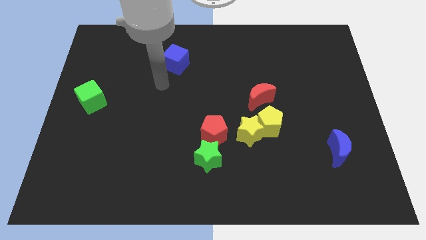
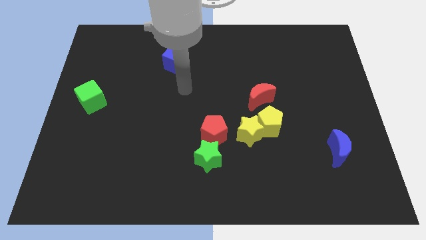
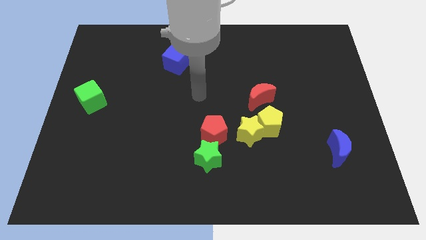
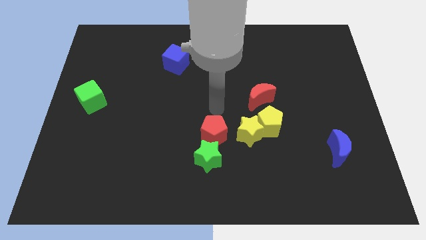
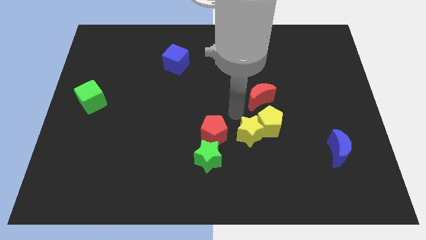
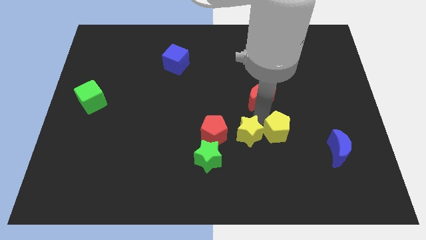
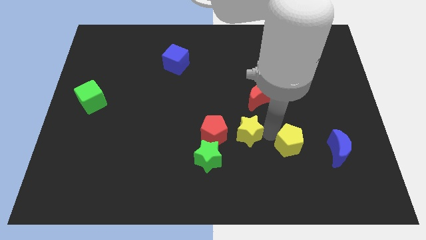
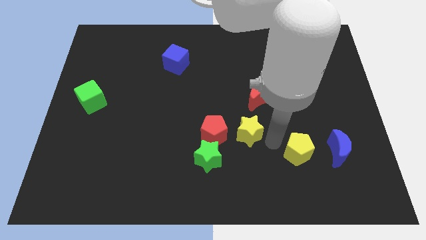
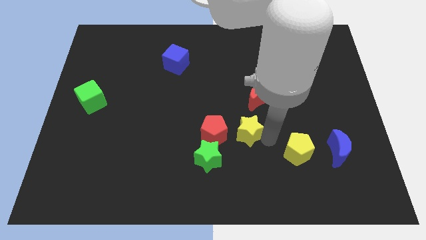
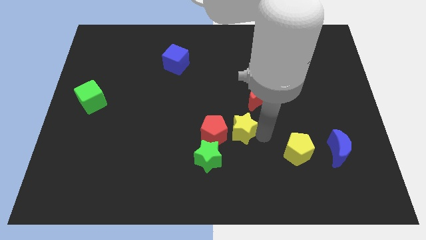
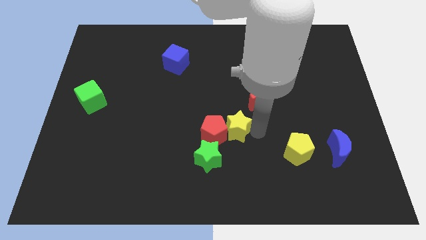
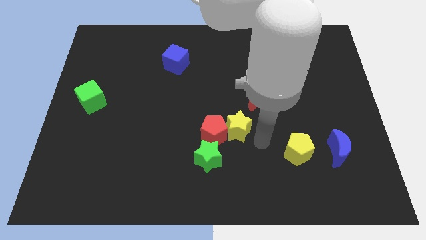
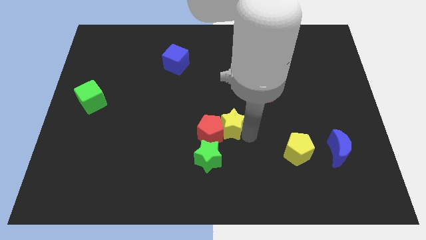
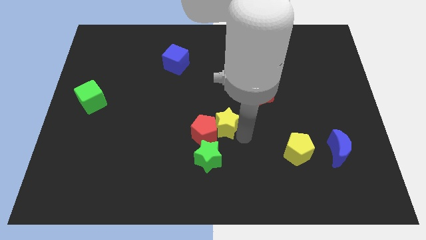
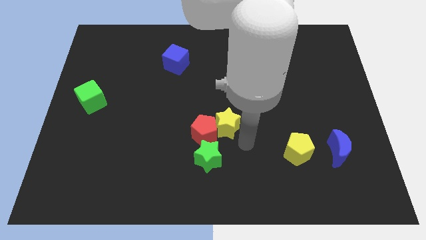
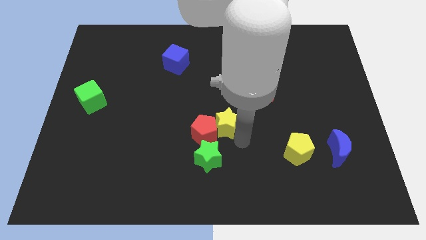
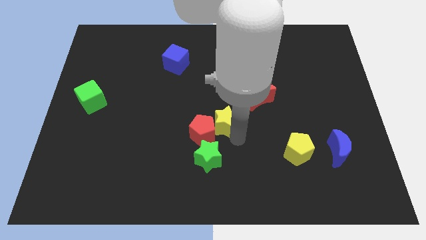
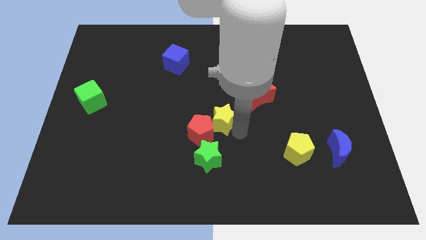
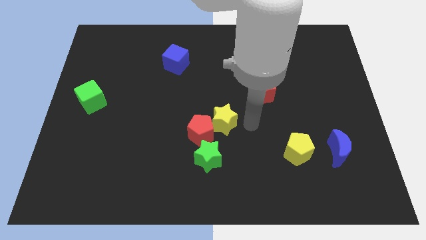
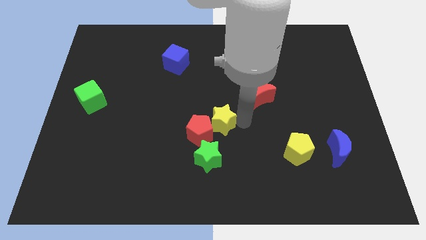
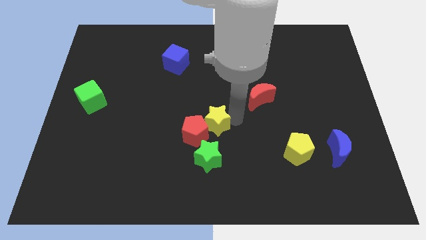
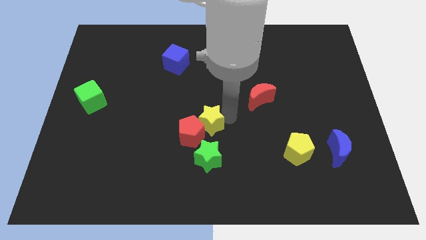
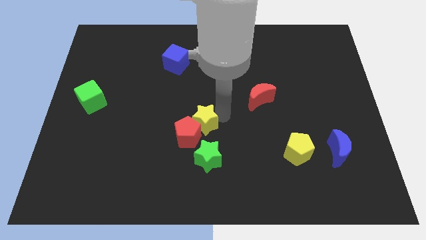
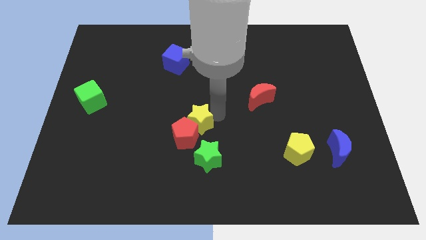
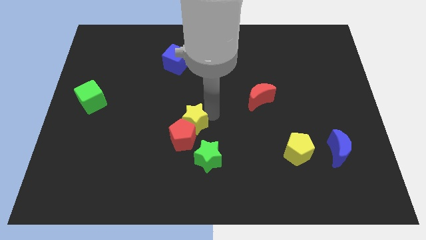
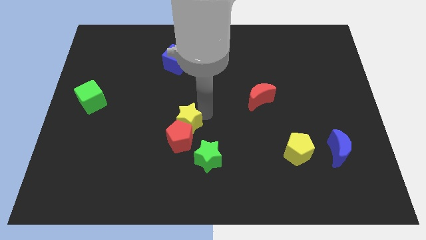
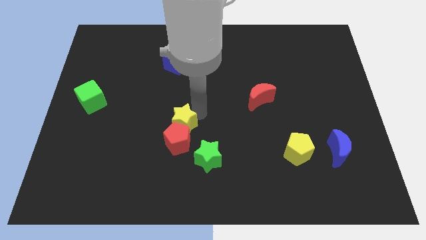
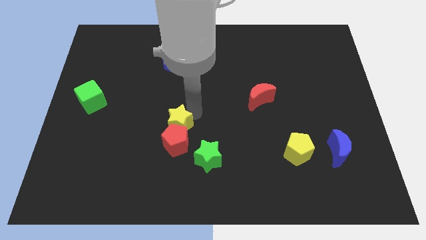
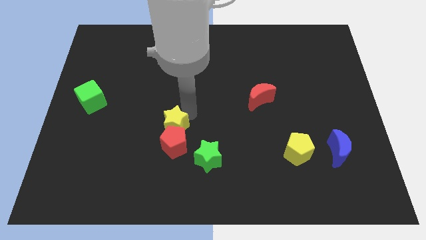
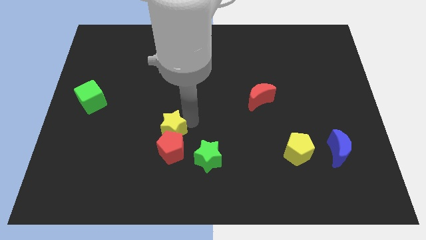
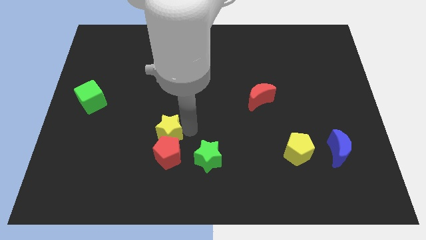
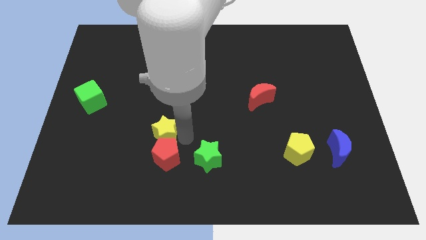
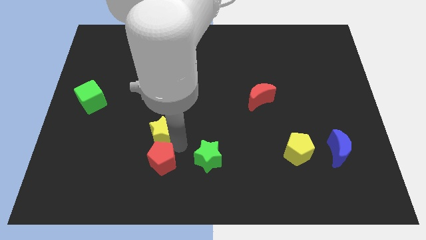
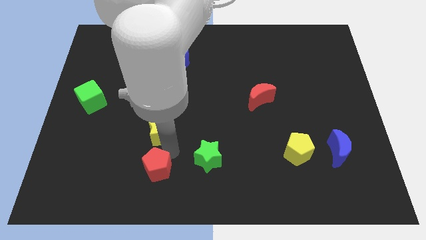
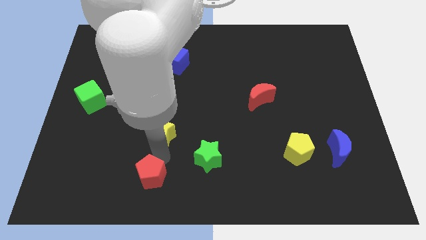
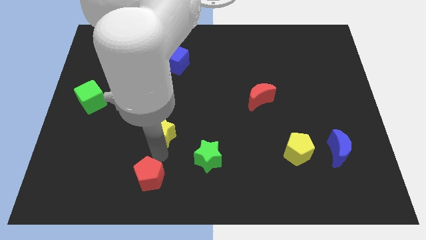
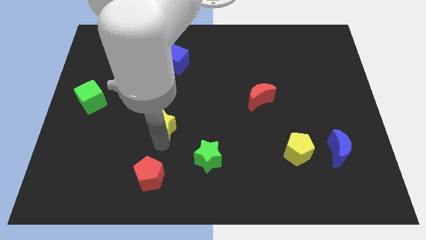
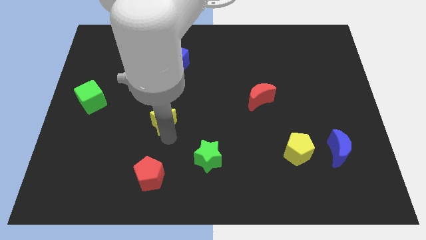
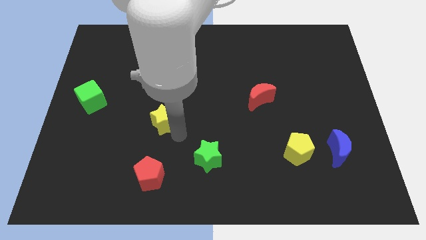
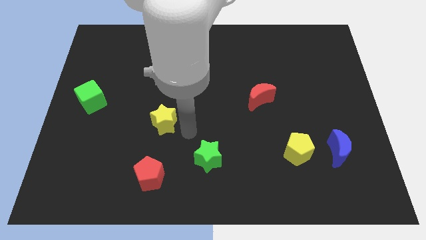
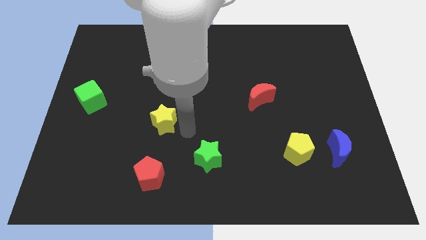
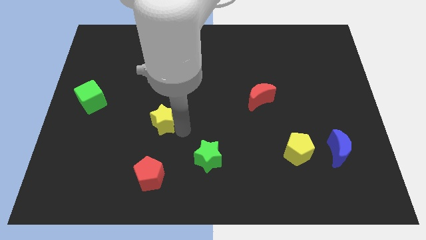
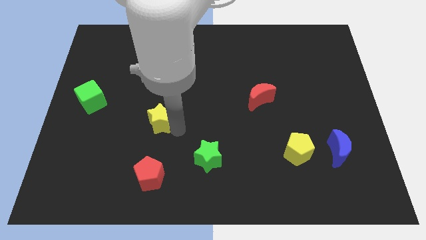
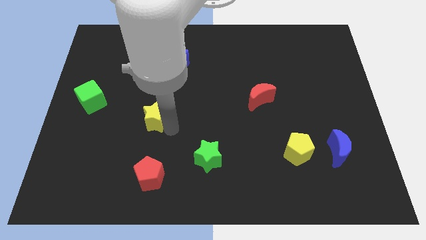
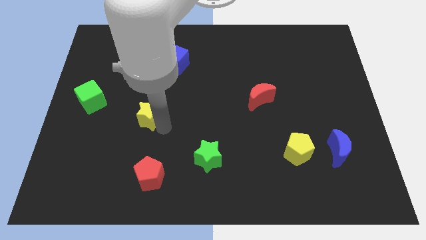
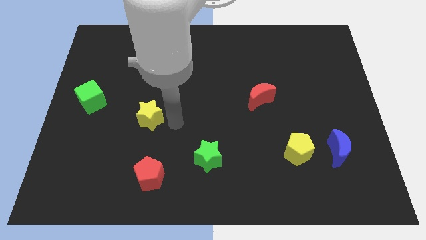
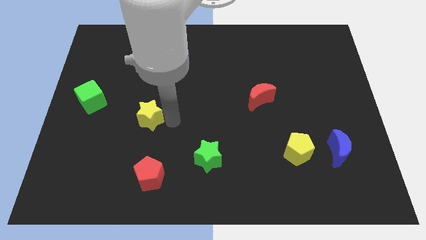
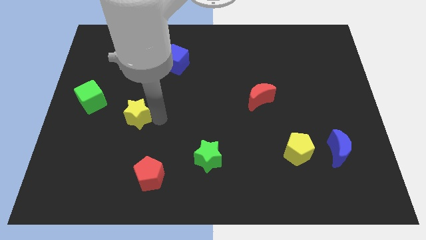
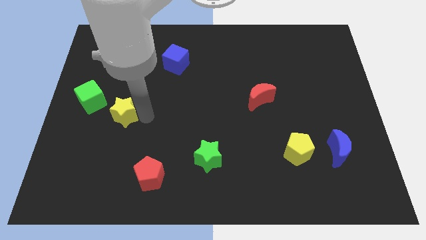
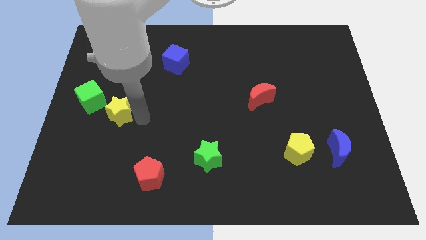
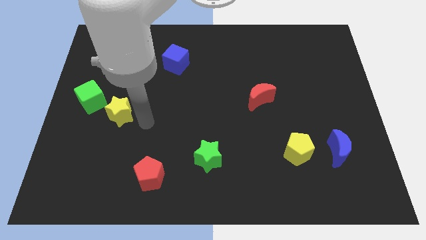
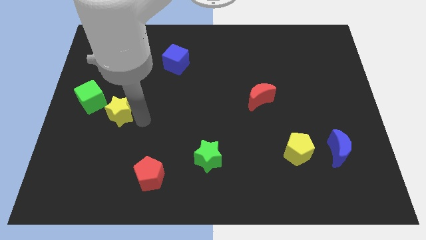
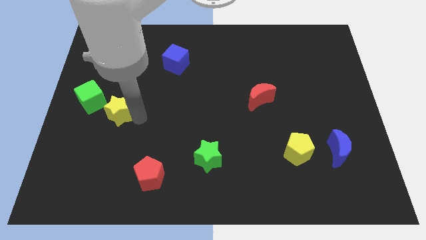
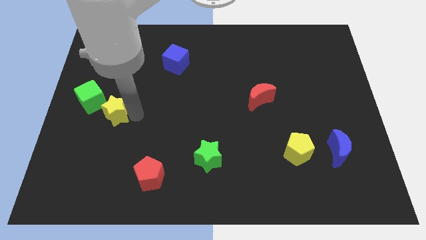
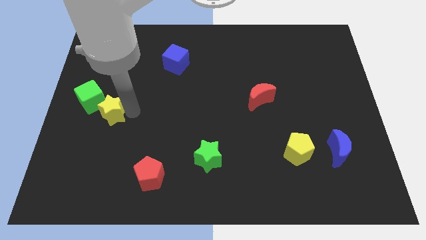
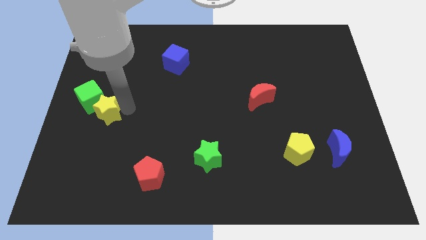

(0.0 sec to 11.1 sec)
put the yellow star towards the green cube

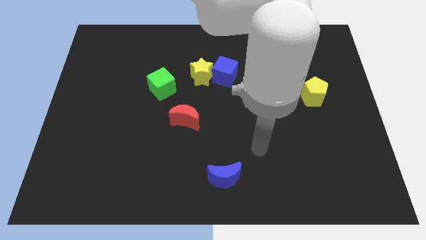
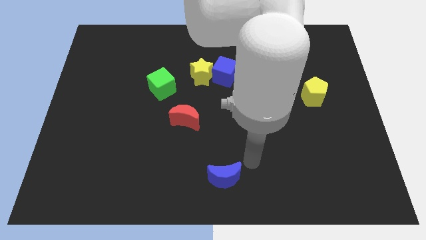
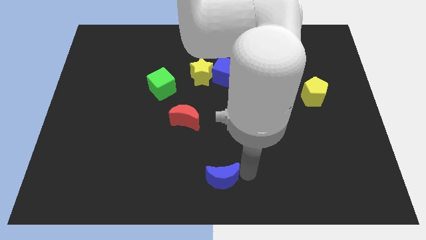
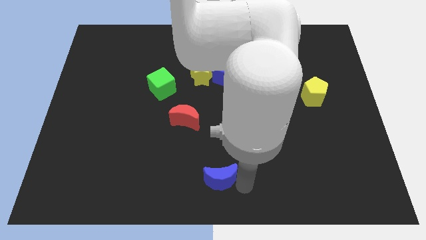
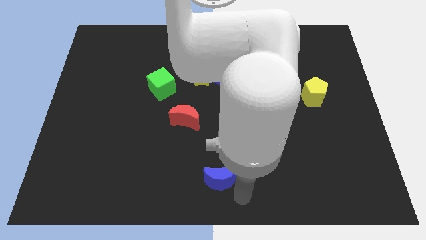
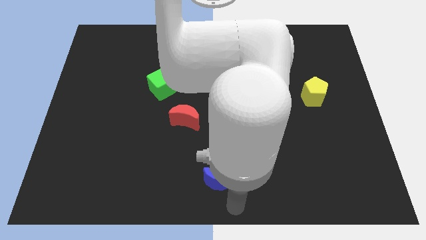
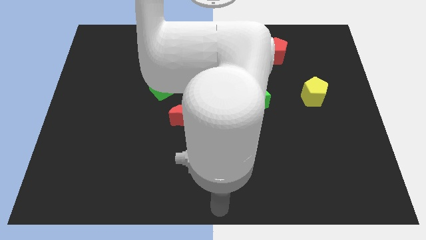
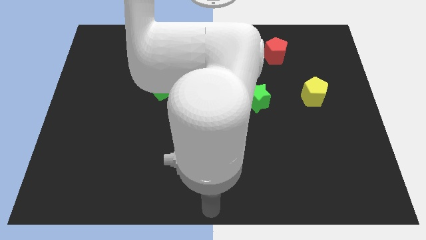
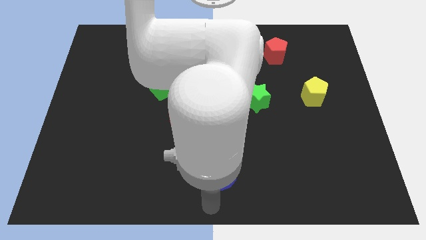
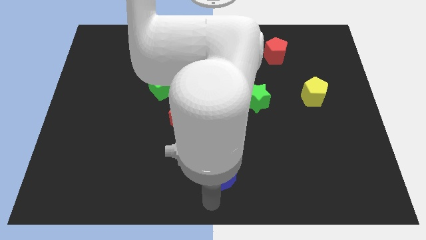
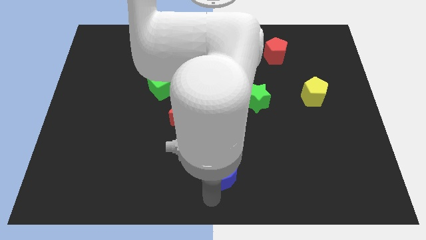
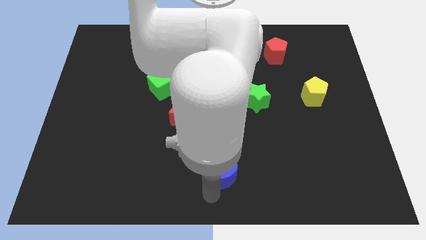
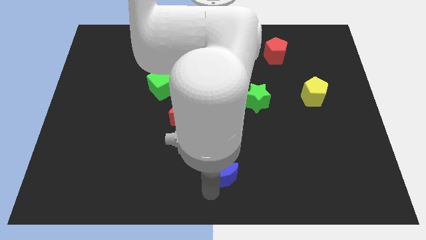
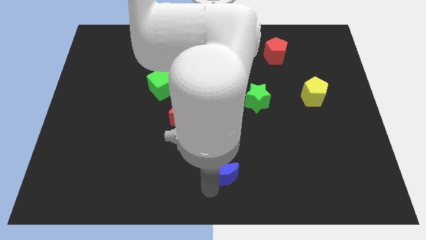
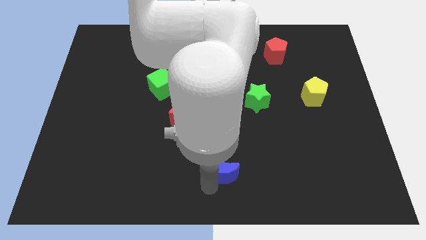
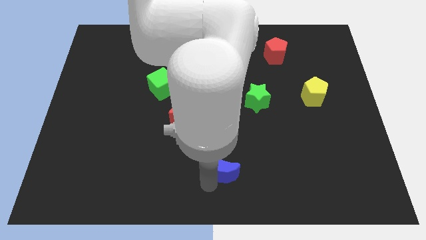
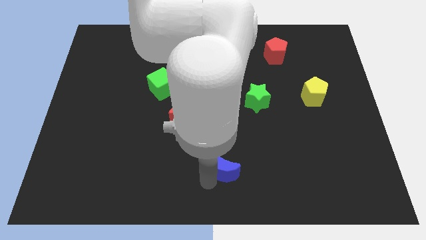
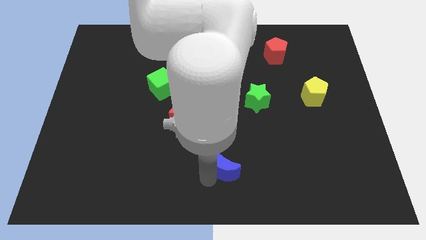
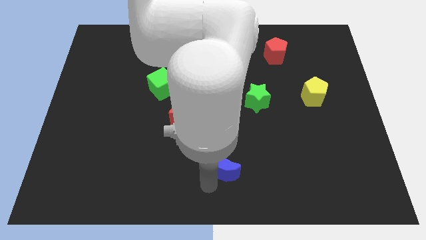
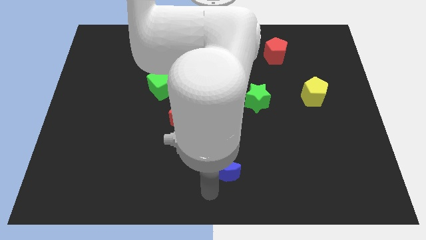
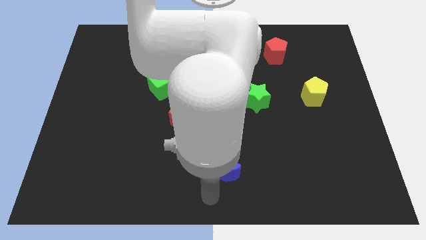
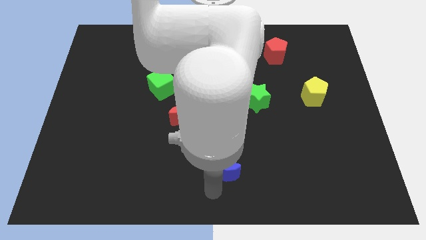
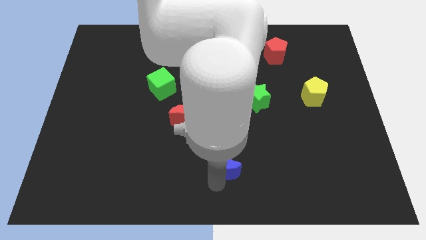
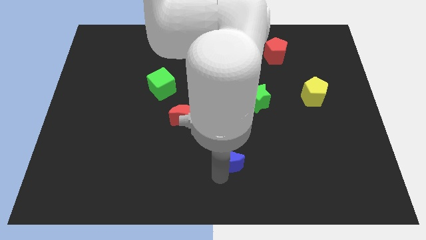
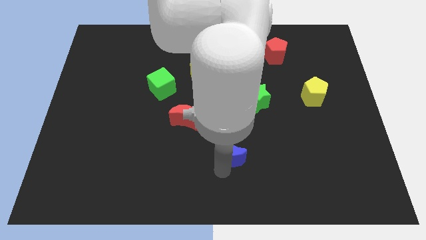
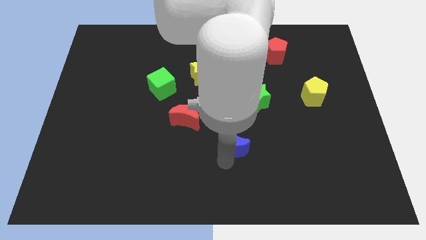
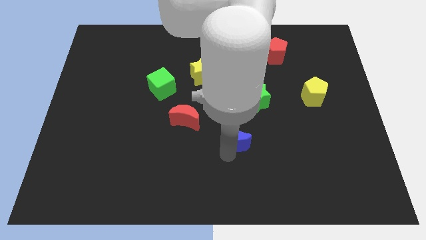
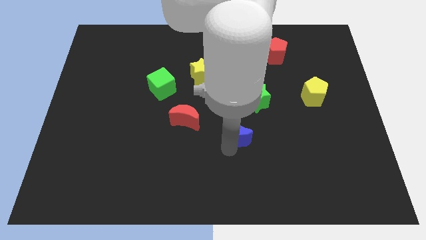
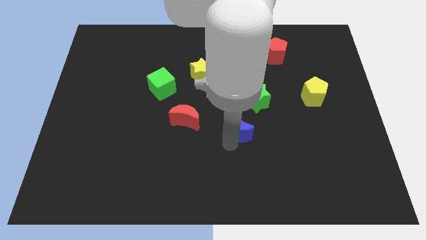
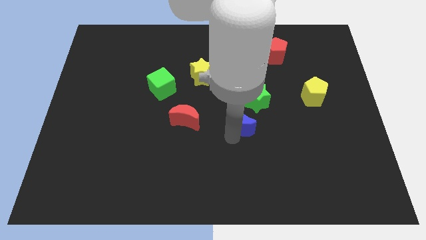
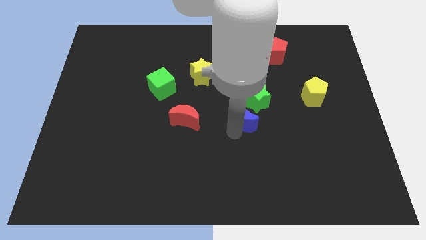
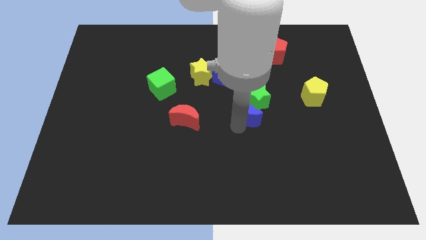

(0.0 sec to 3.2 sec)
move the blue moon towards the green star
